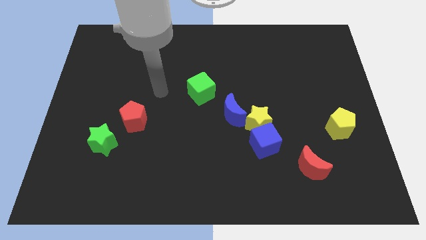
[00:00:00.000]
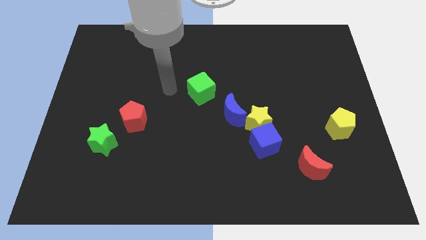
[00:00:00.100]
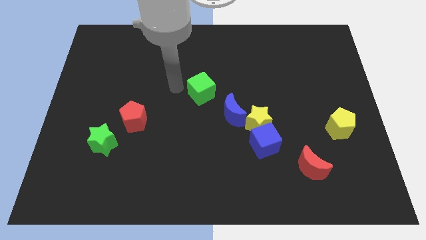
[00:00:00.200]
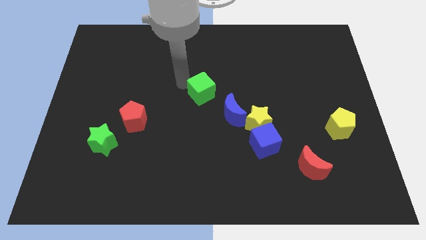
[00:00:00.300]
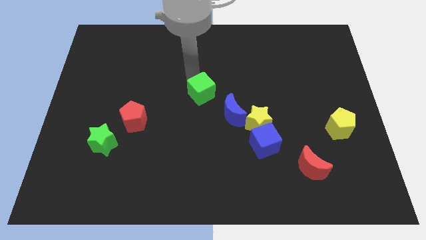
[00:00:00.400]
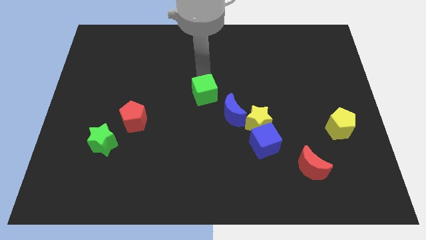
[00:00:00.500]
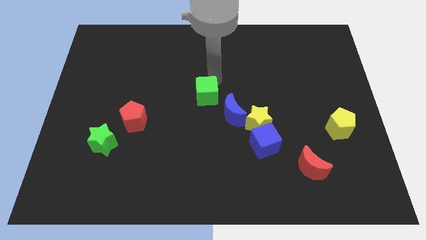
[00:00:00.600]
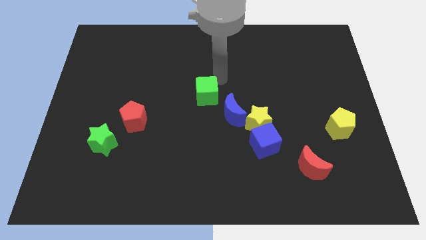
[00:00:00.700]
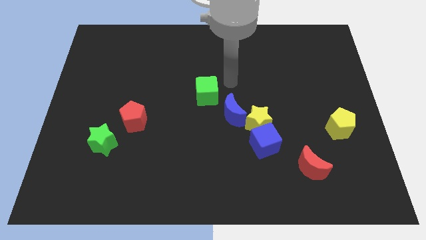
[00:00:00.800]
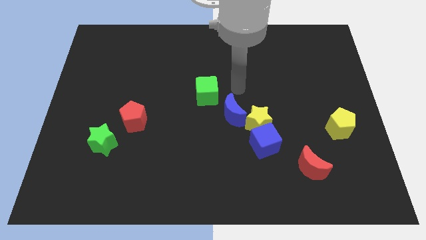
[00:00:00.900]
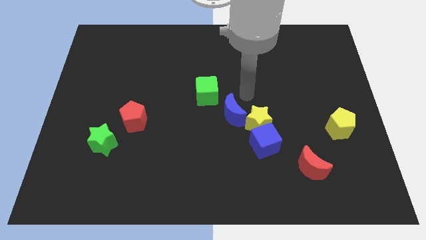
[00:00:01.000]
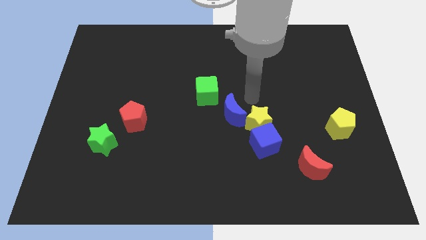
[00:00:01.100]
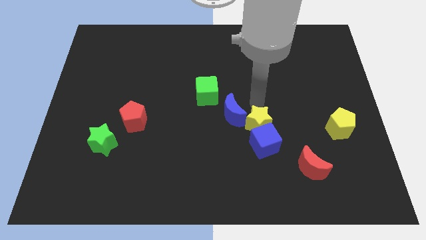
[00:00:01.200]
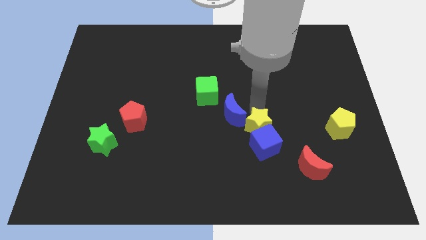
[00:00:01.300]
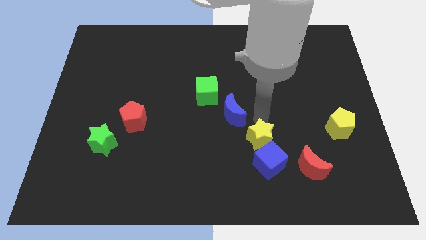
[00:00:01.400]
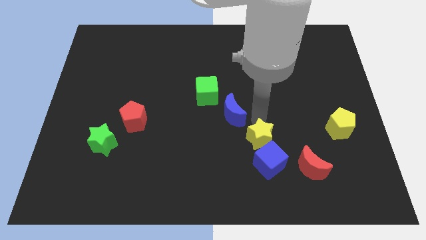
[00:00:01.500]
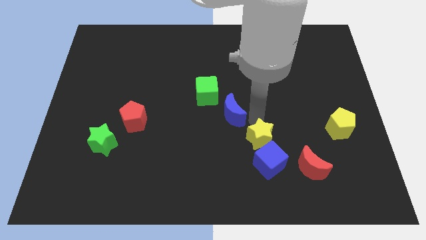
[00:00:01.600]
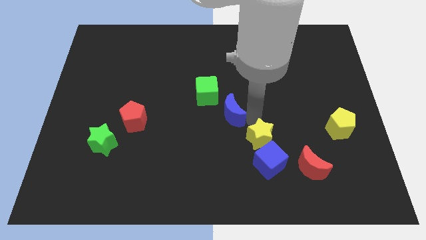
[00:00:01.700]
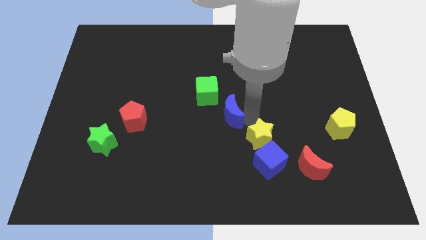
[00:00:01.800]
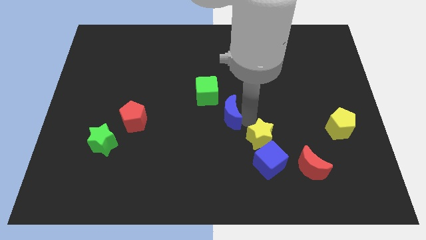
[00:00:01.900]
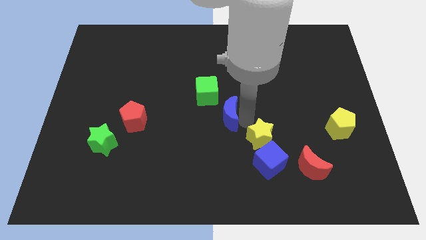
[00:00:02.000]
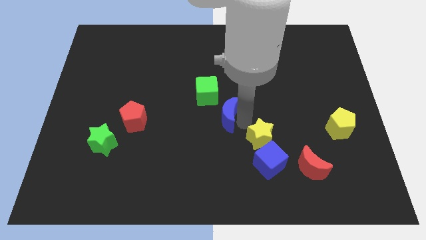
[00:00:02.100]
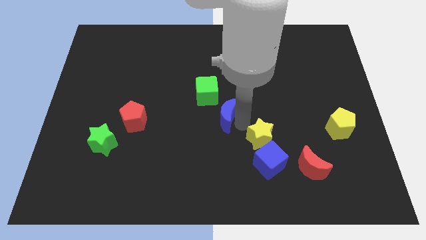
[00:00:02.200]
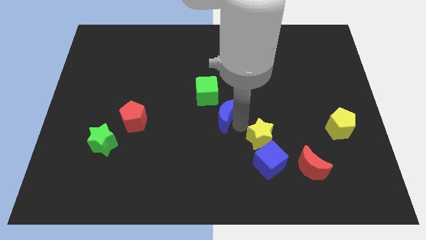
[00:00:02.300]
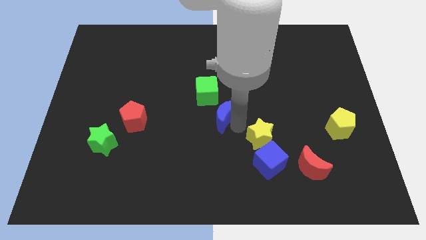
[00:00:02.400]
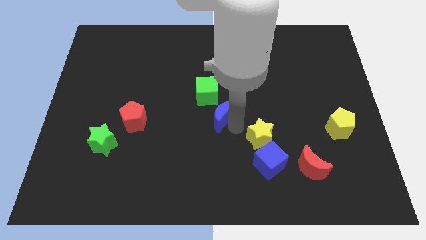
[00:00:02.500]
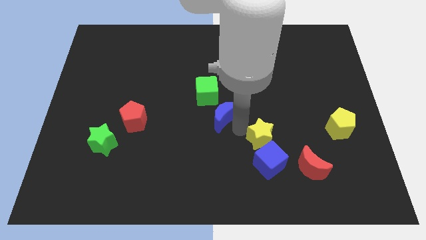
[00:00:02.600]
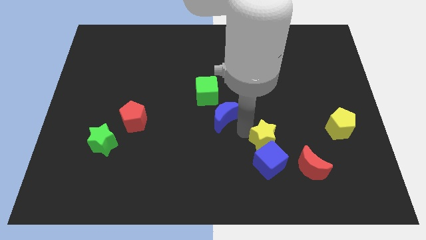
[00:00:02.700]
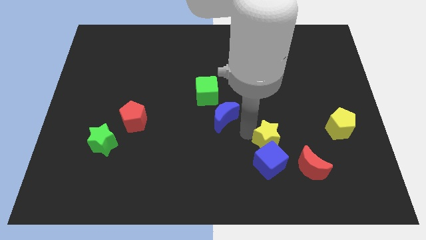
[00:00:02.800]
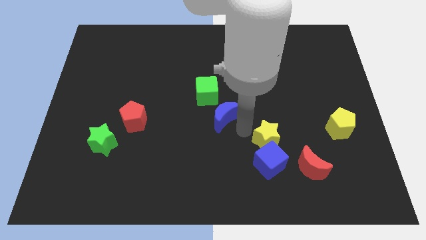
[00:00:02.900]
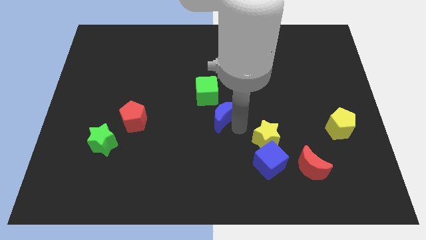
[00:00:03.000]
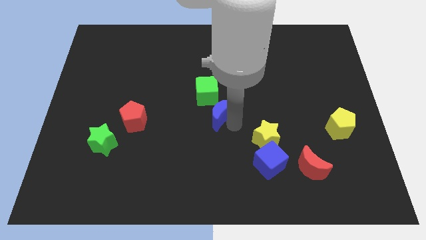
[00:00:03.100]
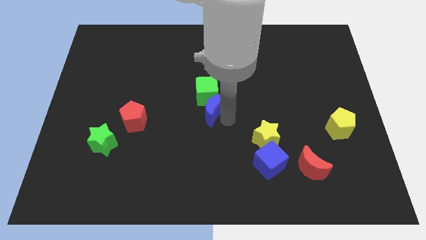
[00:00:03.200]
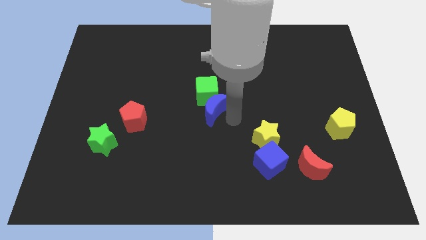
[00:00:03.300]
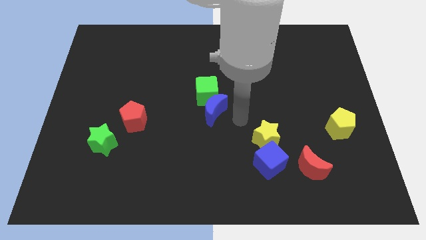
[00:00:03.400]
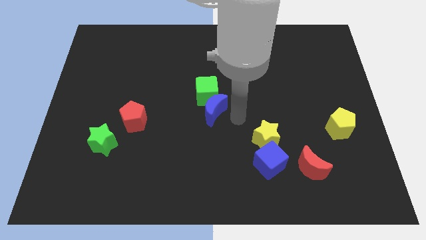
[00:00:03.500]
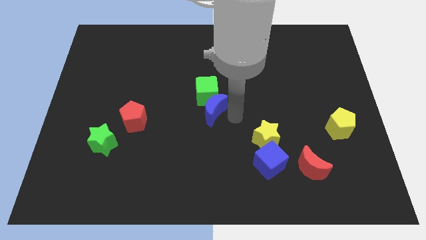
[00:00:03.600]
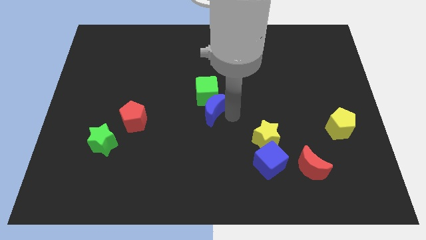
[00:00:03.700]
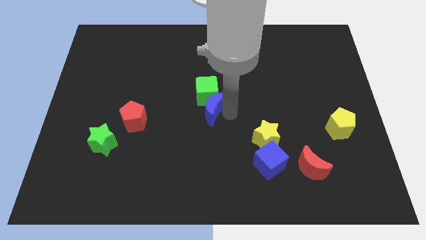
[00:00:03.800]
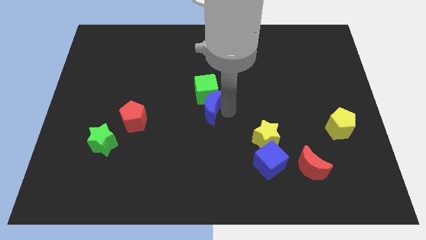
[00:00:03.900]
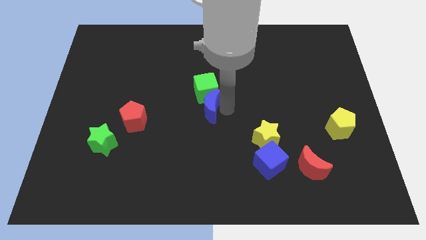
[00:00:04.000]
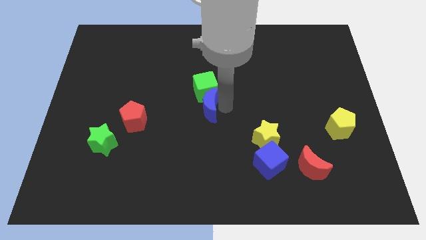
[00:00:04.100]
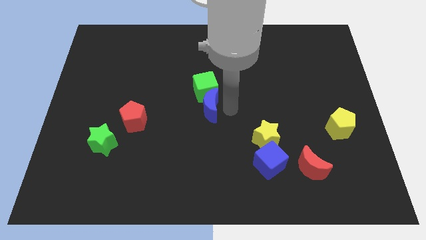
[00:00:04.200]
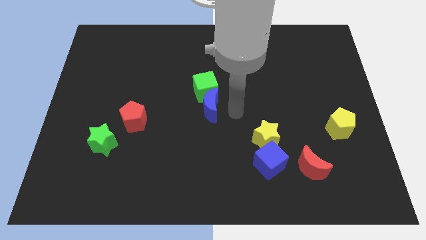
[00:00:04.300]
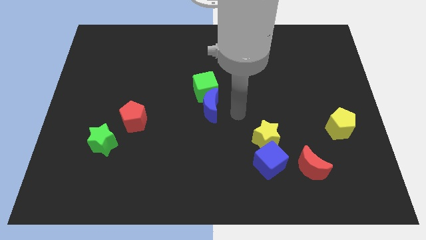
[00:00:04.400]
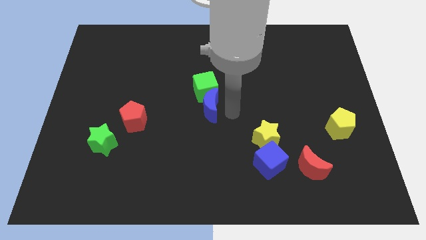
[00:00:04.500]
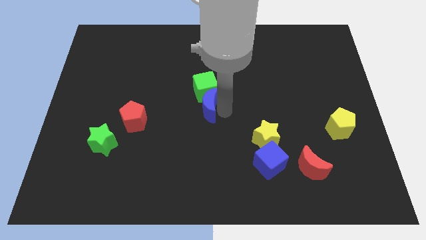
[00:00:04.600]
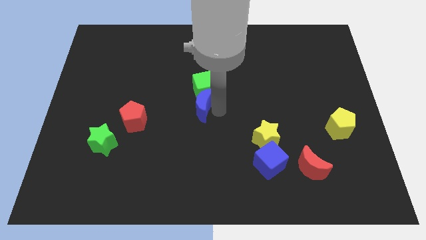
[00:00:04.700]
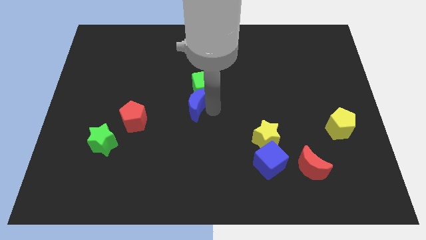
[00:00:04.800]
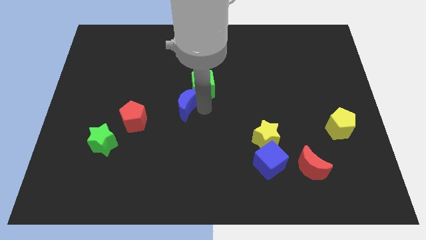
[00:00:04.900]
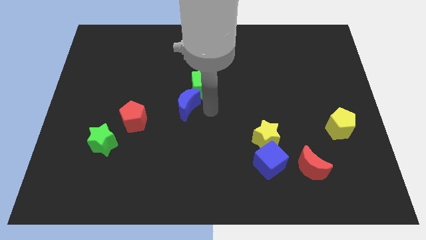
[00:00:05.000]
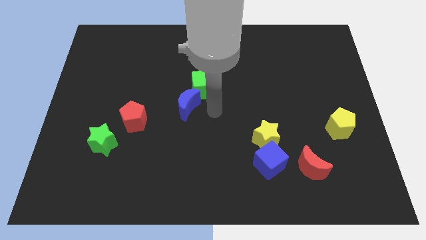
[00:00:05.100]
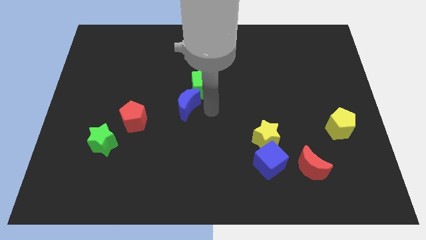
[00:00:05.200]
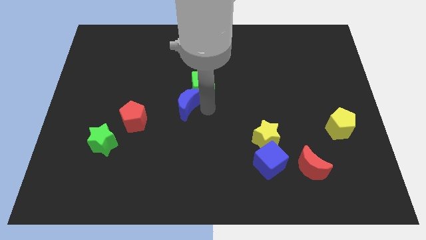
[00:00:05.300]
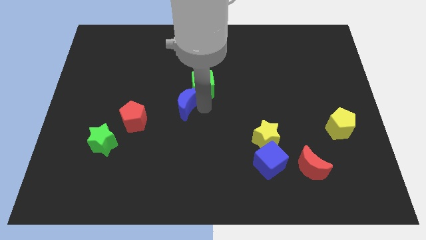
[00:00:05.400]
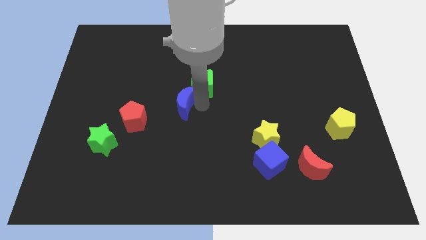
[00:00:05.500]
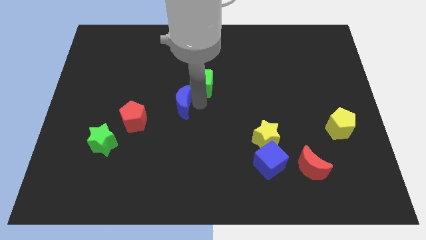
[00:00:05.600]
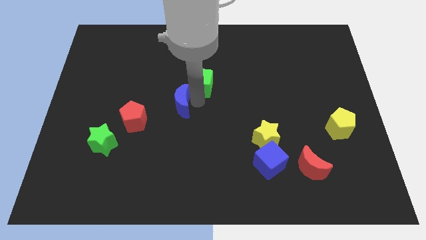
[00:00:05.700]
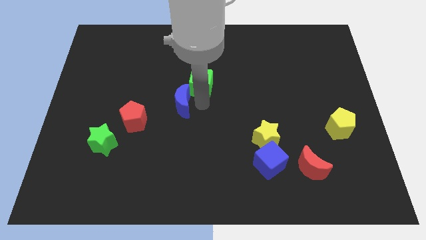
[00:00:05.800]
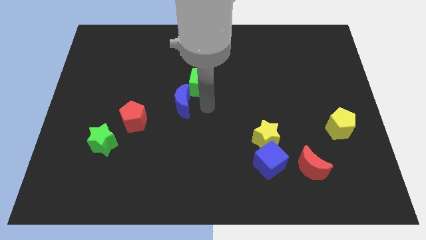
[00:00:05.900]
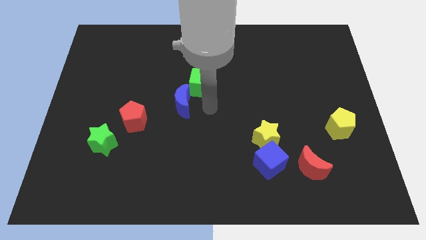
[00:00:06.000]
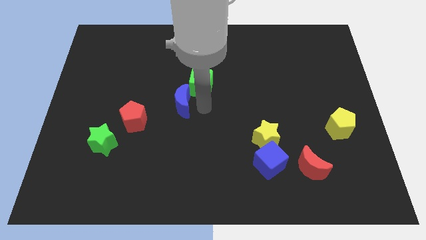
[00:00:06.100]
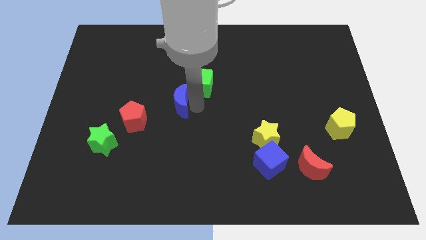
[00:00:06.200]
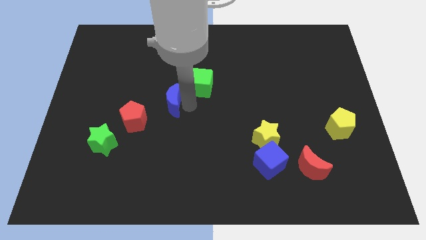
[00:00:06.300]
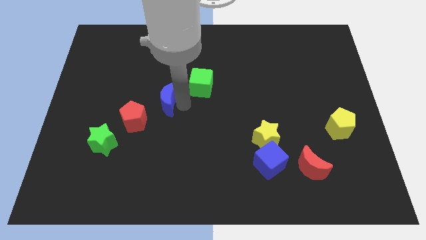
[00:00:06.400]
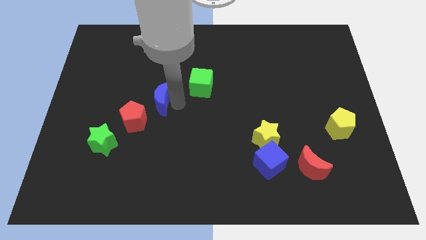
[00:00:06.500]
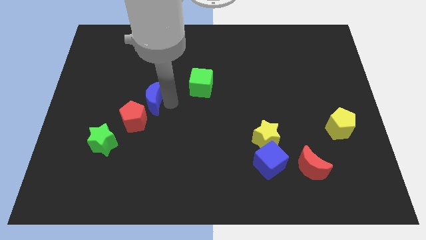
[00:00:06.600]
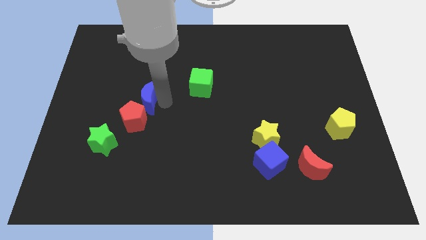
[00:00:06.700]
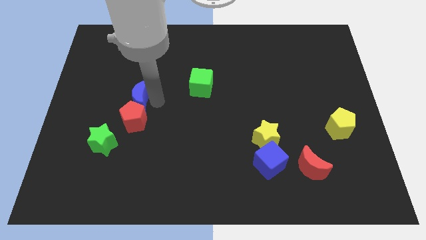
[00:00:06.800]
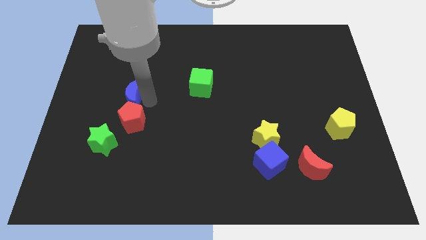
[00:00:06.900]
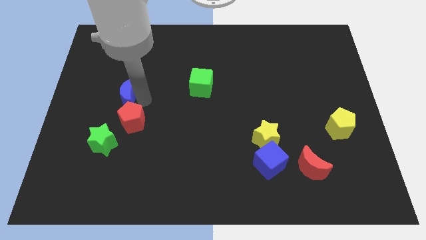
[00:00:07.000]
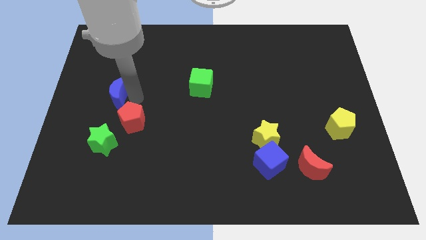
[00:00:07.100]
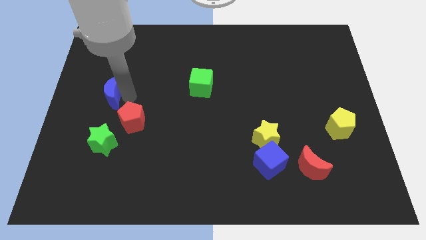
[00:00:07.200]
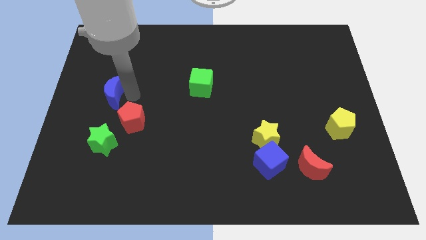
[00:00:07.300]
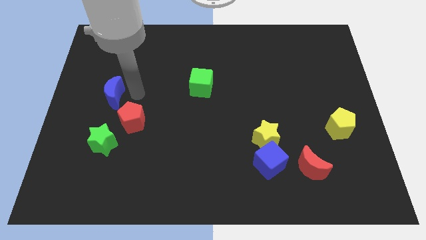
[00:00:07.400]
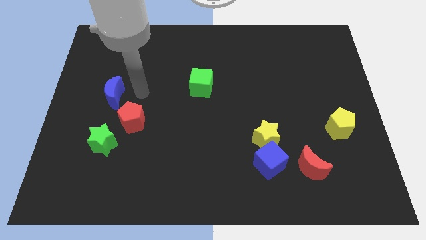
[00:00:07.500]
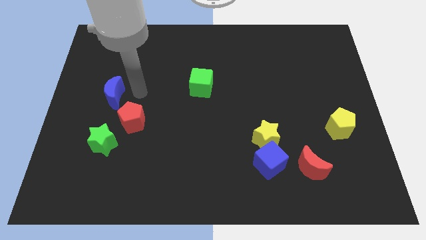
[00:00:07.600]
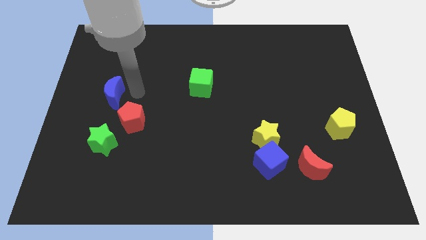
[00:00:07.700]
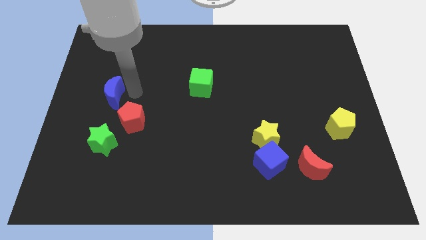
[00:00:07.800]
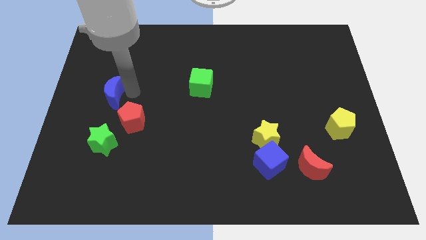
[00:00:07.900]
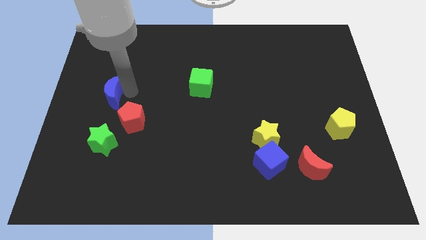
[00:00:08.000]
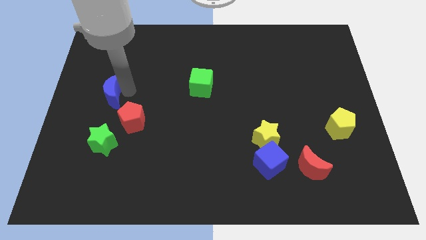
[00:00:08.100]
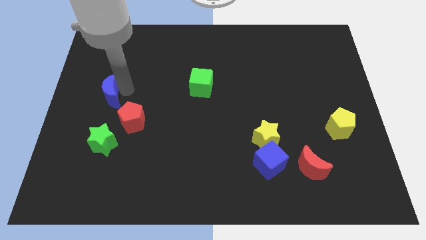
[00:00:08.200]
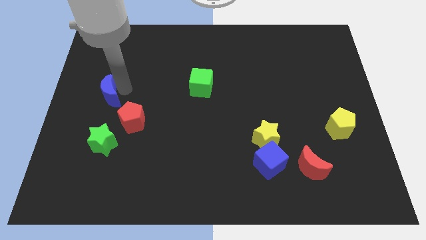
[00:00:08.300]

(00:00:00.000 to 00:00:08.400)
put the blue moon to the left side
